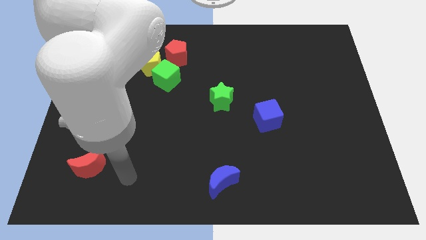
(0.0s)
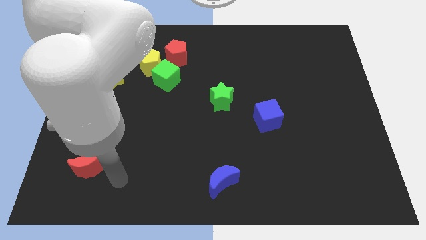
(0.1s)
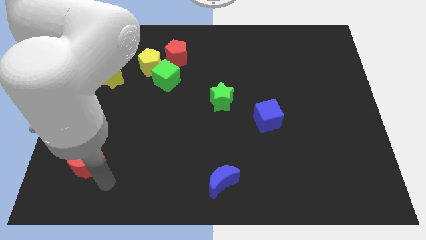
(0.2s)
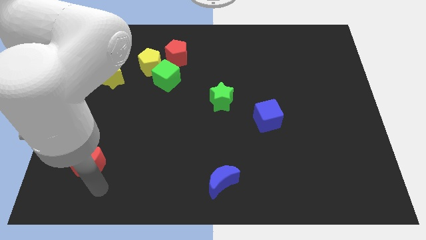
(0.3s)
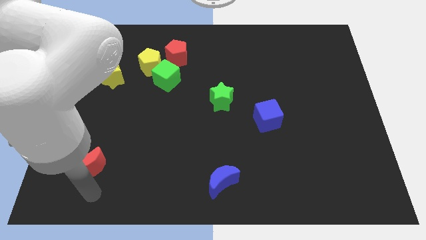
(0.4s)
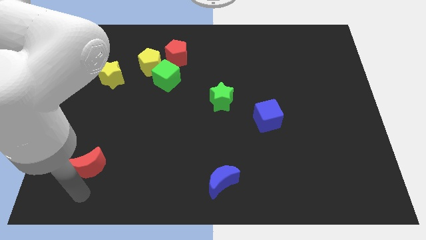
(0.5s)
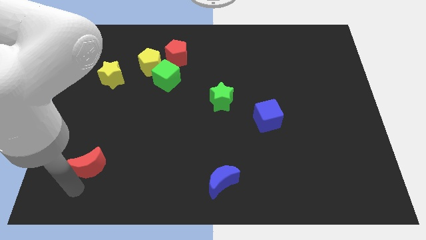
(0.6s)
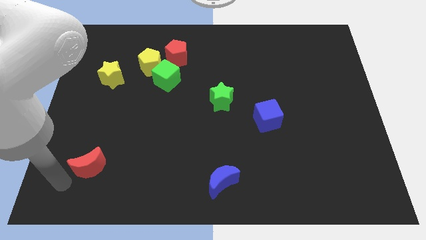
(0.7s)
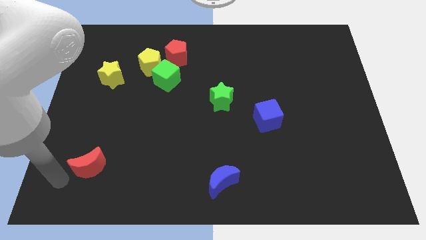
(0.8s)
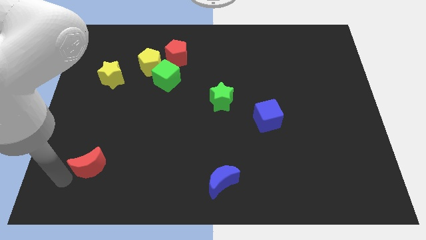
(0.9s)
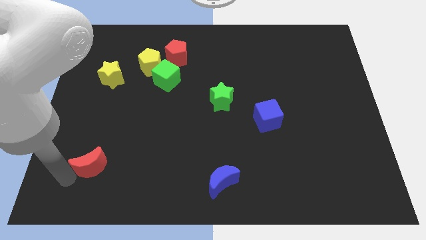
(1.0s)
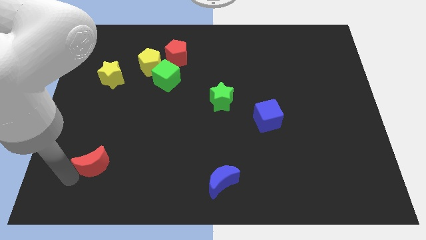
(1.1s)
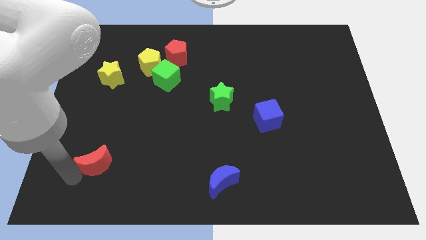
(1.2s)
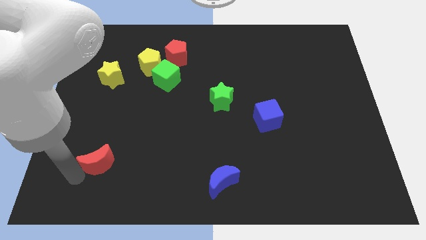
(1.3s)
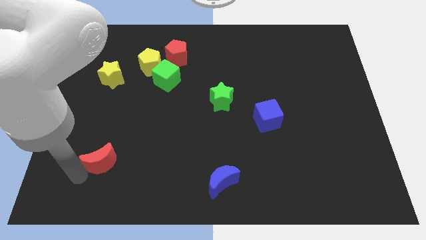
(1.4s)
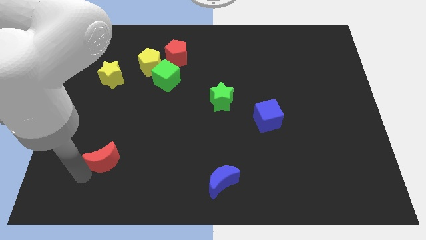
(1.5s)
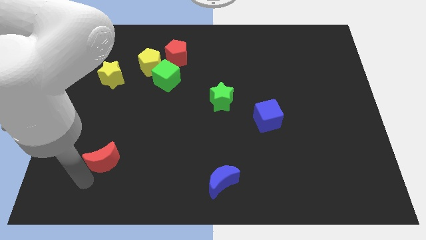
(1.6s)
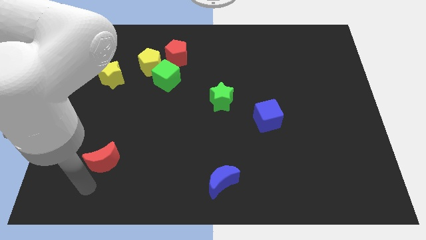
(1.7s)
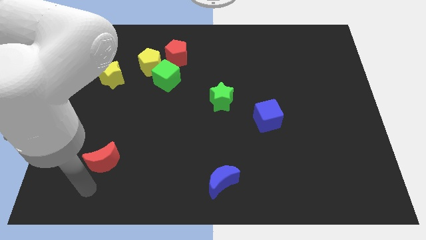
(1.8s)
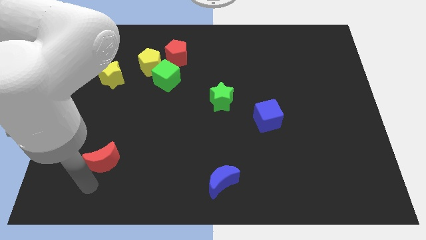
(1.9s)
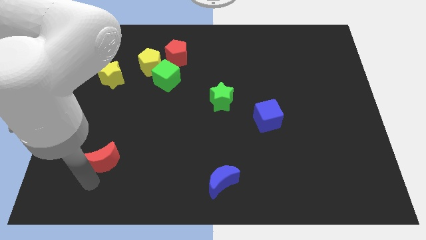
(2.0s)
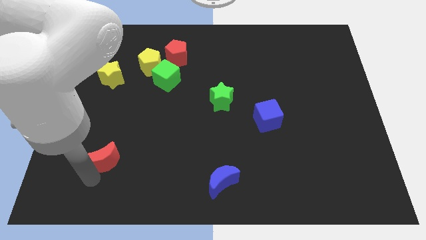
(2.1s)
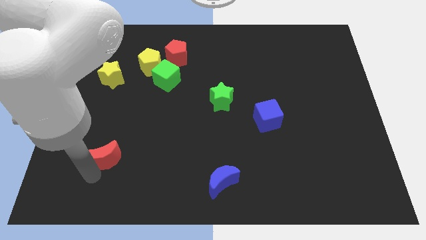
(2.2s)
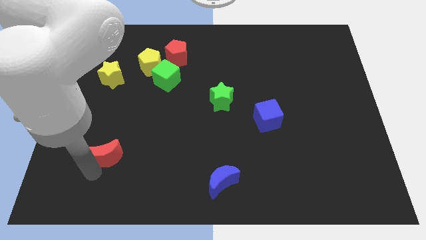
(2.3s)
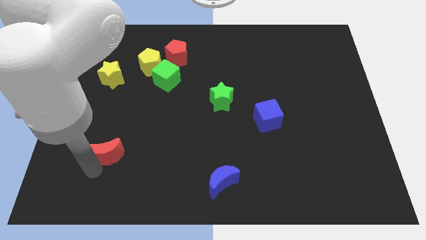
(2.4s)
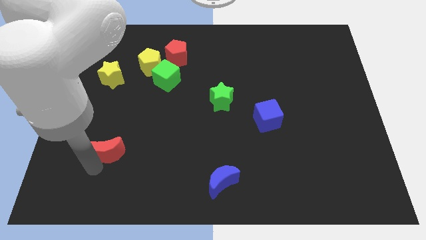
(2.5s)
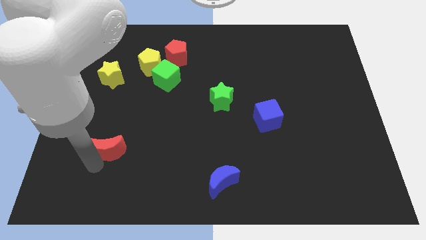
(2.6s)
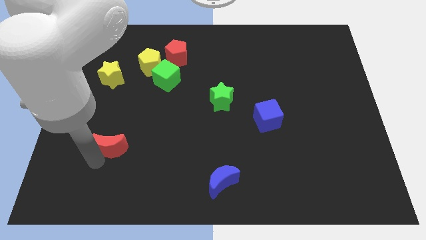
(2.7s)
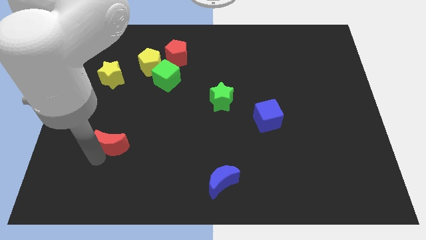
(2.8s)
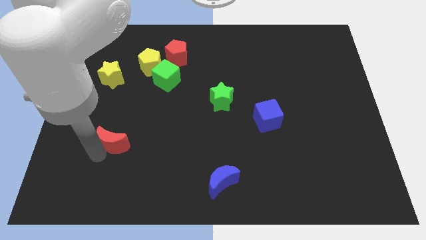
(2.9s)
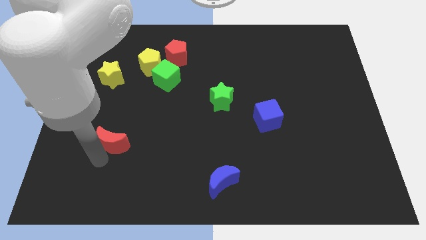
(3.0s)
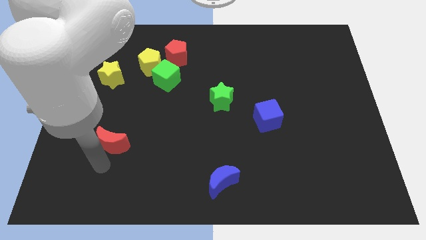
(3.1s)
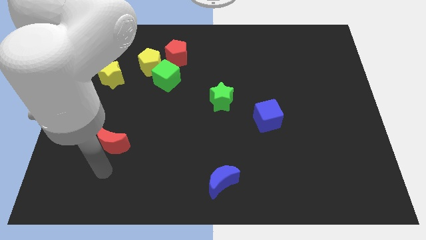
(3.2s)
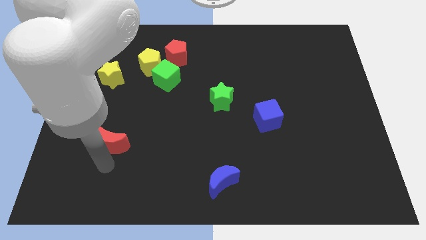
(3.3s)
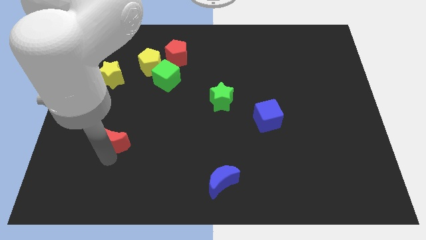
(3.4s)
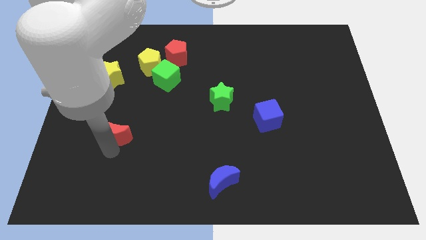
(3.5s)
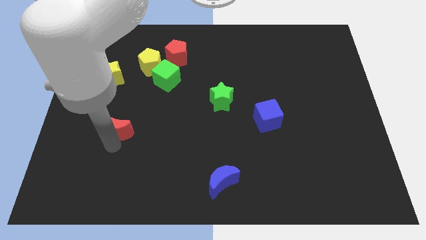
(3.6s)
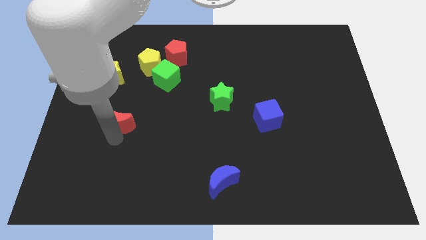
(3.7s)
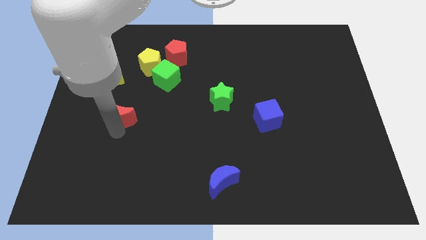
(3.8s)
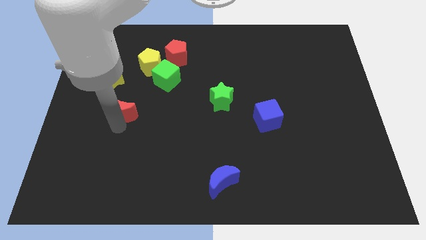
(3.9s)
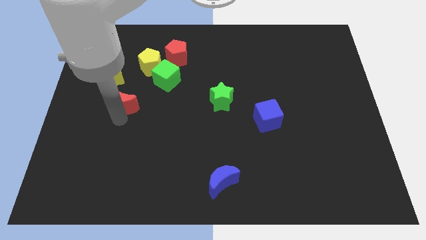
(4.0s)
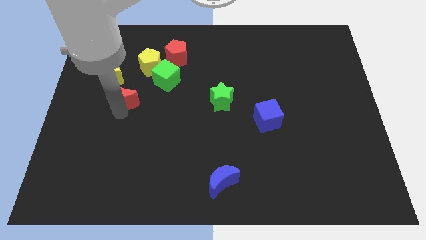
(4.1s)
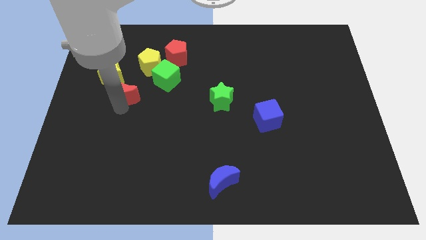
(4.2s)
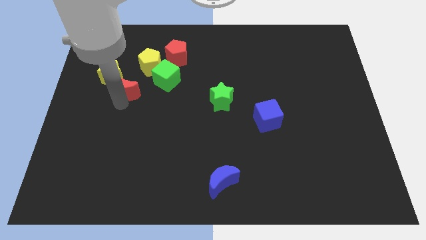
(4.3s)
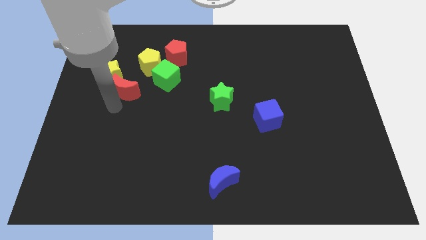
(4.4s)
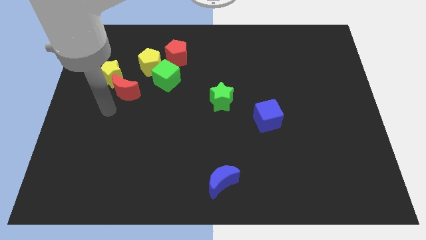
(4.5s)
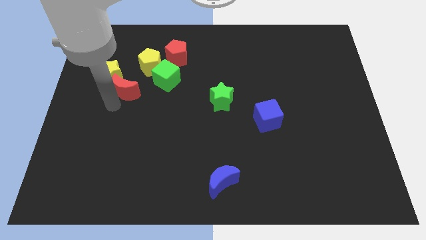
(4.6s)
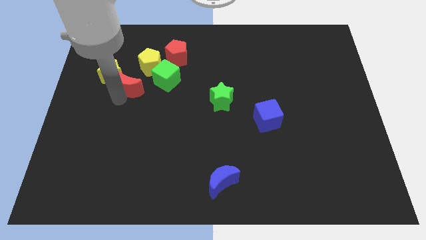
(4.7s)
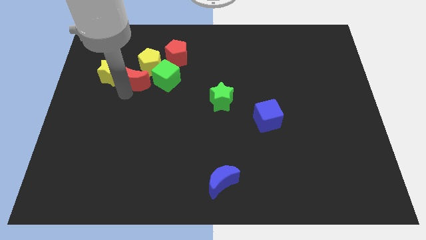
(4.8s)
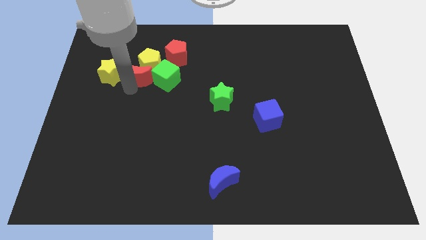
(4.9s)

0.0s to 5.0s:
slide the red moon close to the yellow pentagon

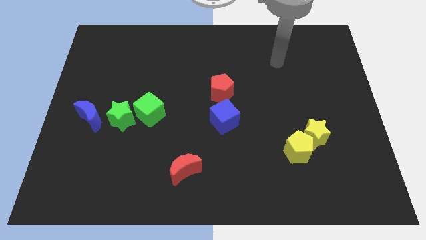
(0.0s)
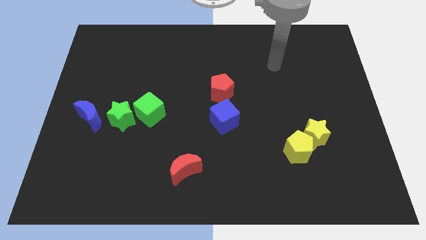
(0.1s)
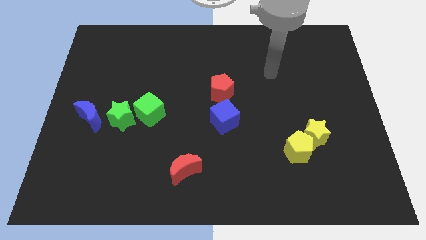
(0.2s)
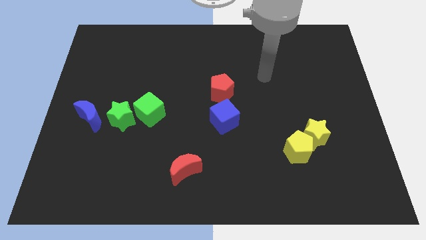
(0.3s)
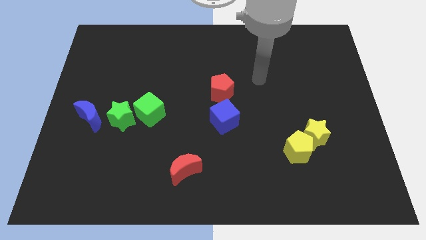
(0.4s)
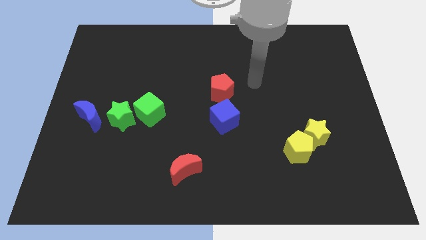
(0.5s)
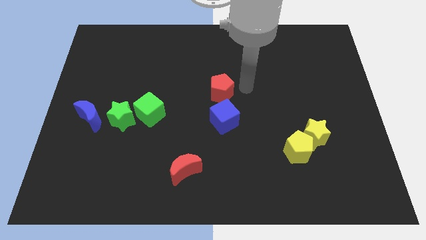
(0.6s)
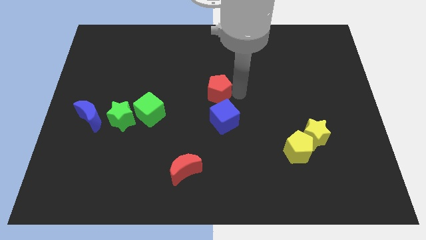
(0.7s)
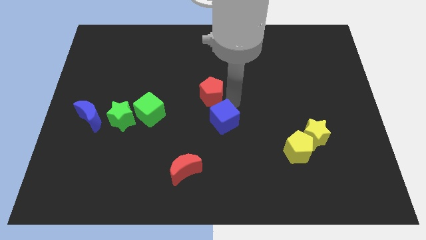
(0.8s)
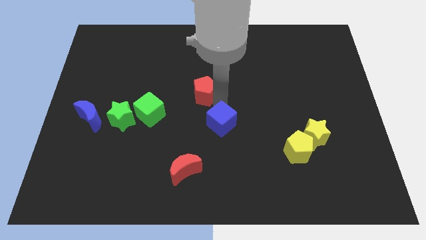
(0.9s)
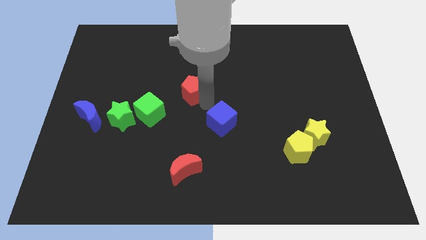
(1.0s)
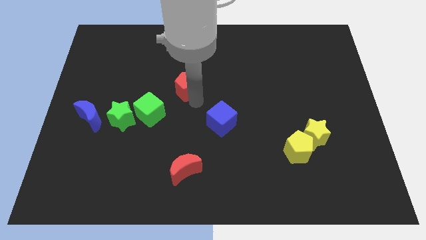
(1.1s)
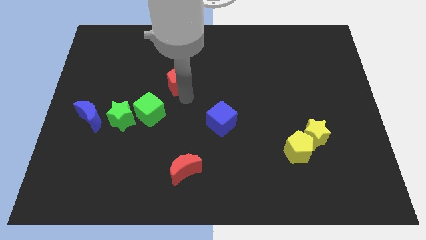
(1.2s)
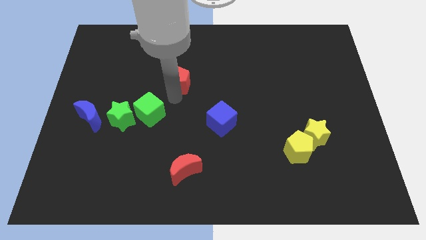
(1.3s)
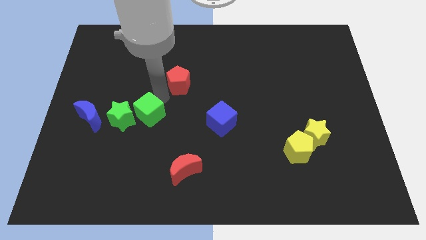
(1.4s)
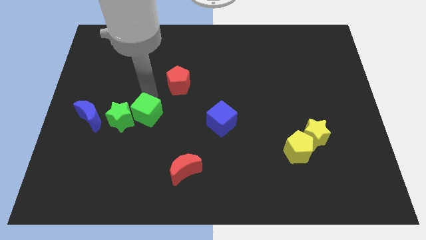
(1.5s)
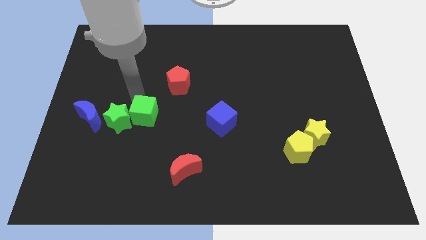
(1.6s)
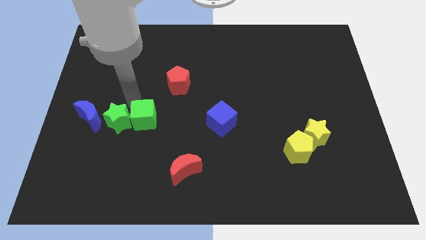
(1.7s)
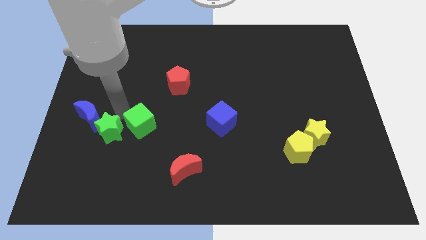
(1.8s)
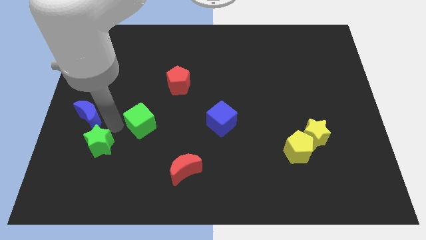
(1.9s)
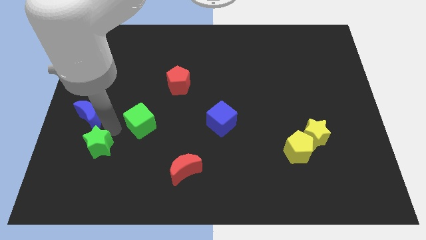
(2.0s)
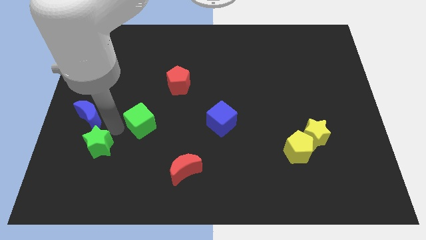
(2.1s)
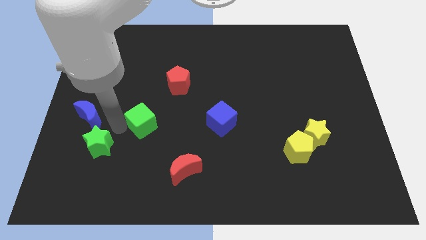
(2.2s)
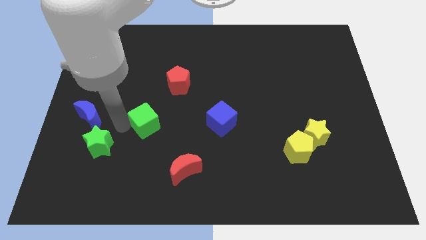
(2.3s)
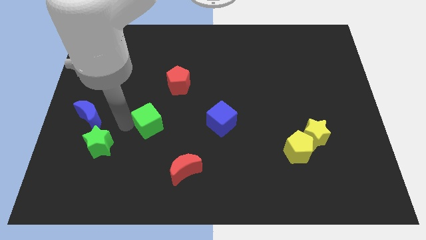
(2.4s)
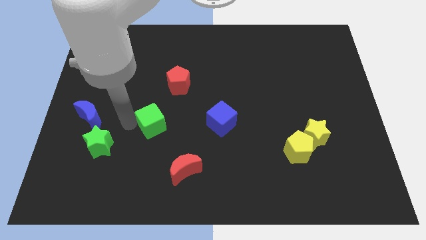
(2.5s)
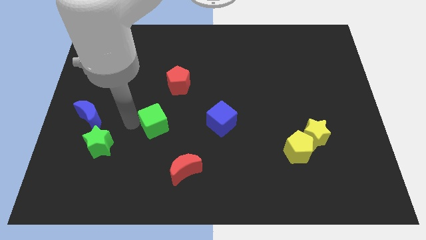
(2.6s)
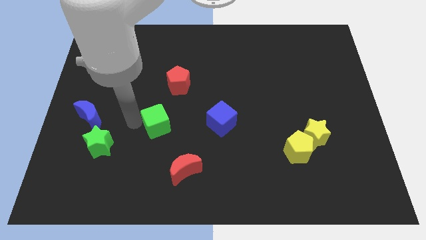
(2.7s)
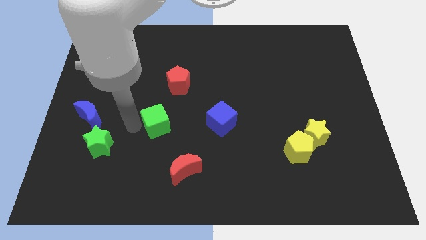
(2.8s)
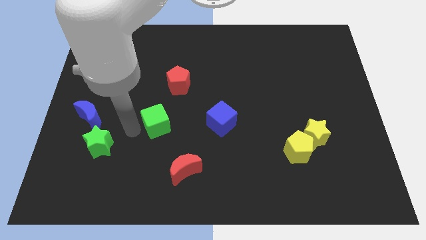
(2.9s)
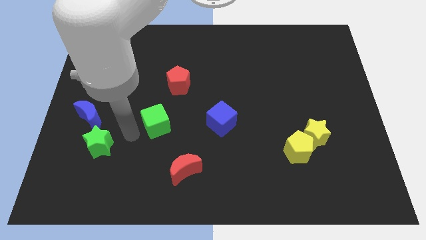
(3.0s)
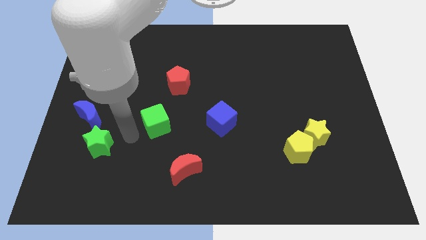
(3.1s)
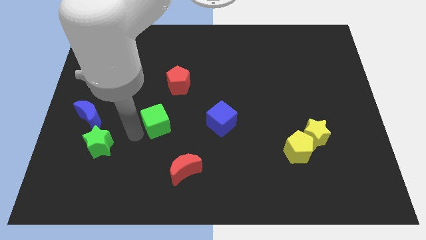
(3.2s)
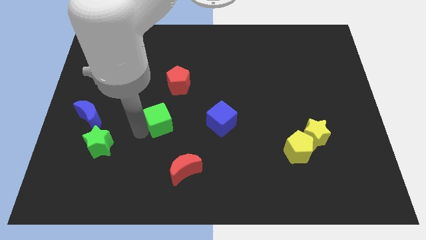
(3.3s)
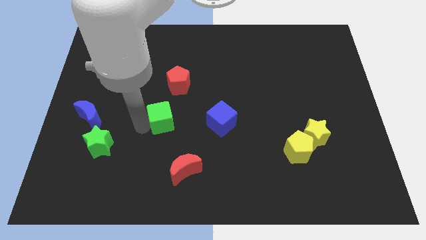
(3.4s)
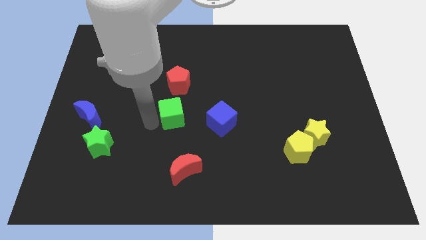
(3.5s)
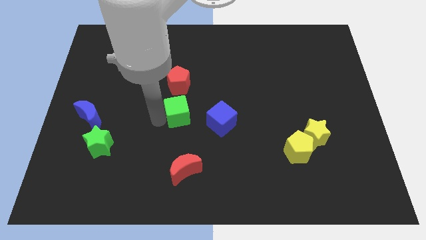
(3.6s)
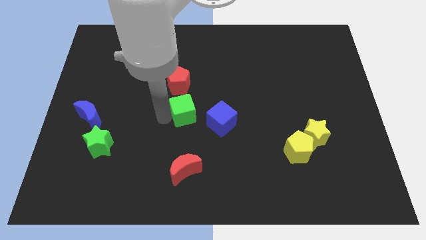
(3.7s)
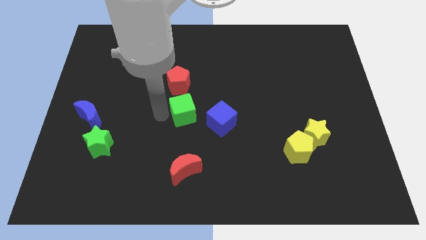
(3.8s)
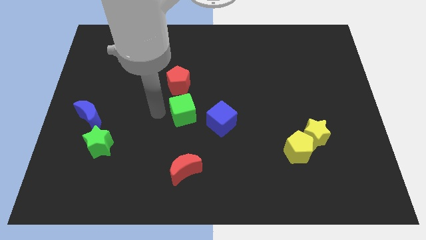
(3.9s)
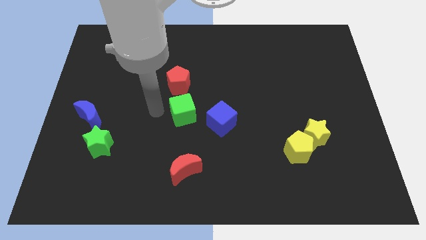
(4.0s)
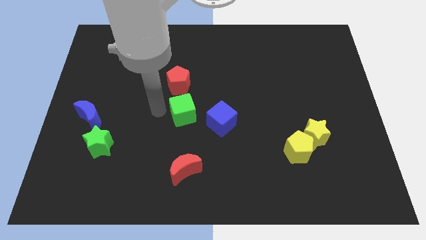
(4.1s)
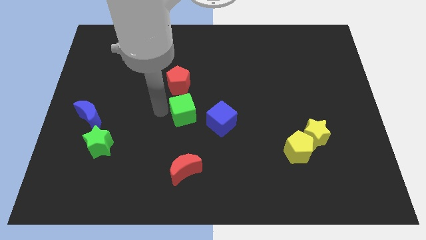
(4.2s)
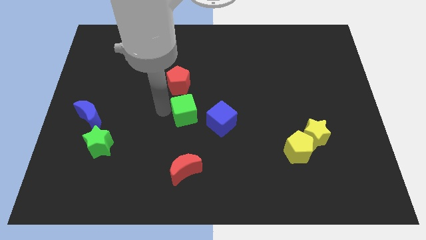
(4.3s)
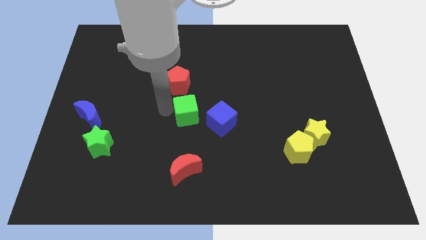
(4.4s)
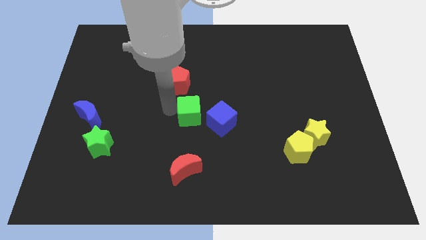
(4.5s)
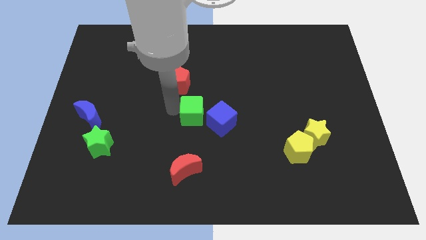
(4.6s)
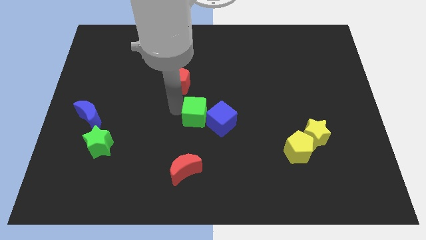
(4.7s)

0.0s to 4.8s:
put the green cube close to the blue cube
